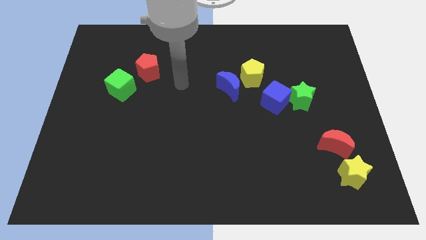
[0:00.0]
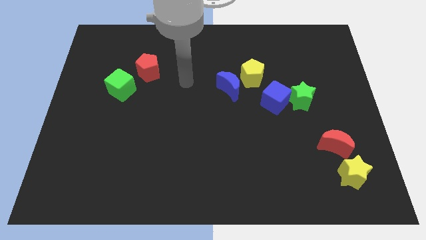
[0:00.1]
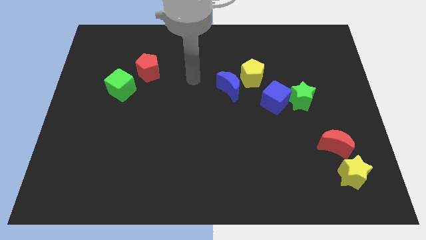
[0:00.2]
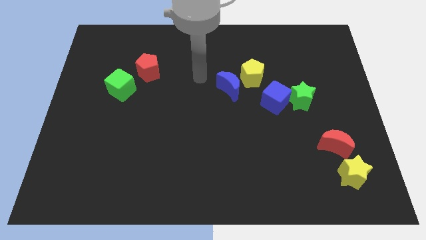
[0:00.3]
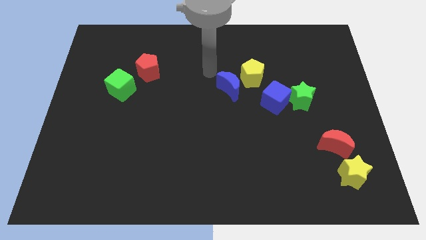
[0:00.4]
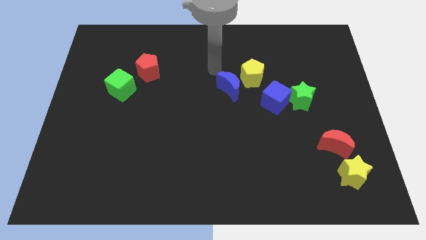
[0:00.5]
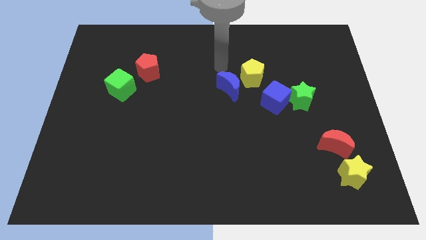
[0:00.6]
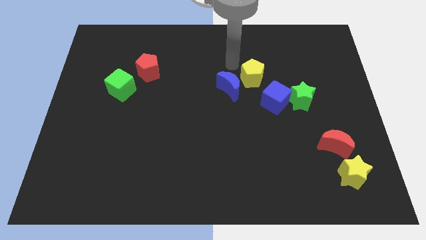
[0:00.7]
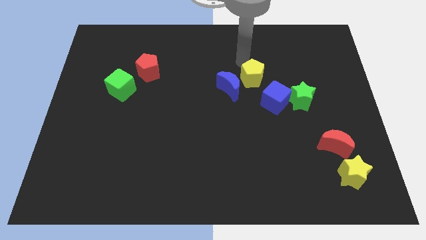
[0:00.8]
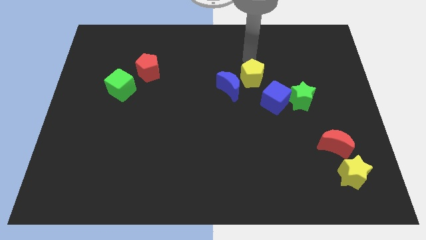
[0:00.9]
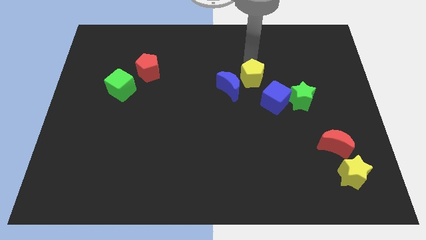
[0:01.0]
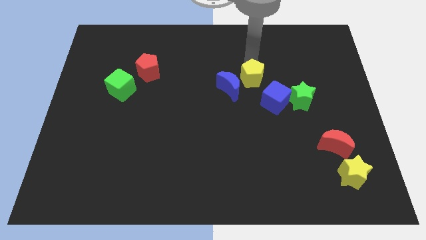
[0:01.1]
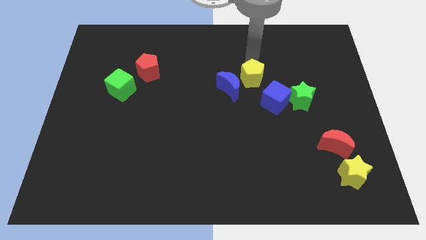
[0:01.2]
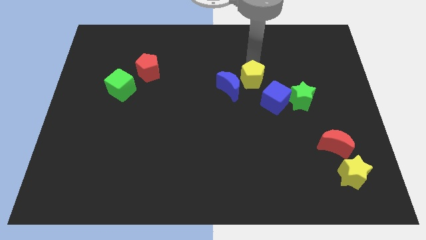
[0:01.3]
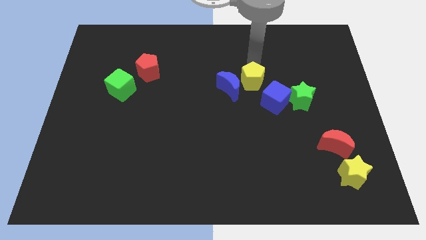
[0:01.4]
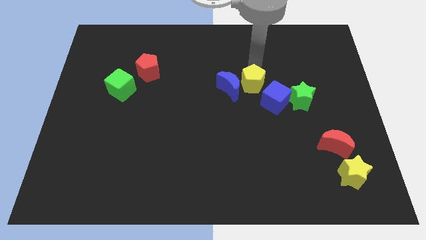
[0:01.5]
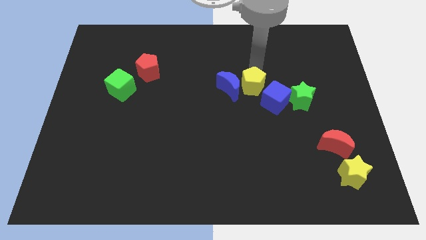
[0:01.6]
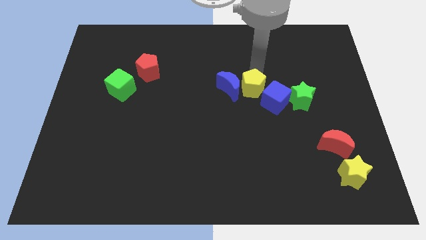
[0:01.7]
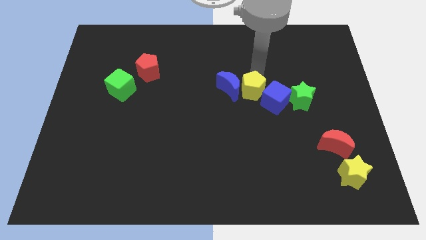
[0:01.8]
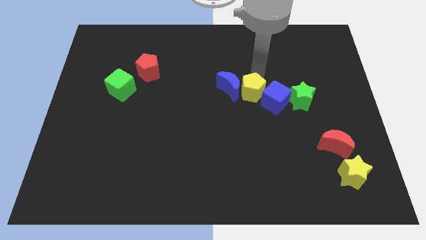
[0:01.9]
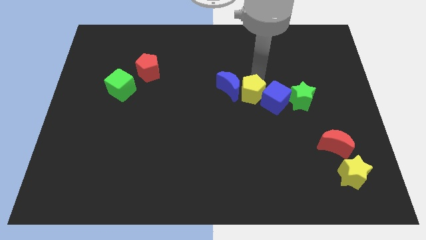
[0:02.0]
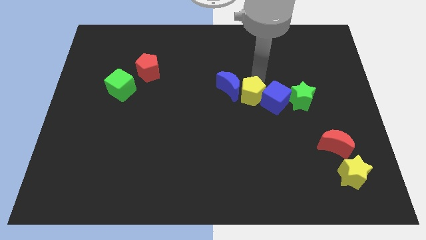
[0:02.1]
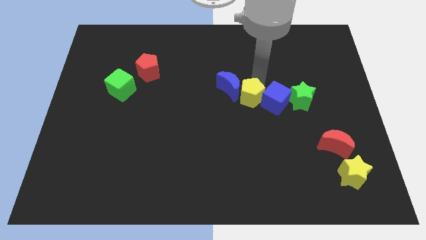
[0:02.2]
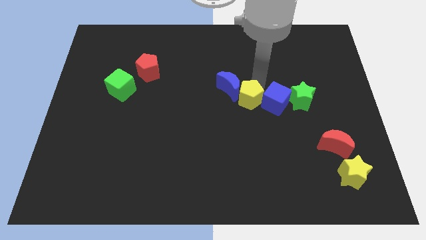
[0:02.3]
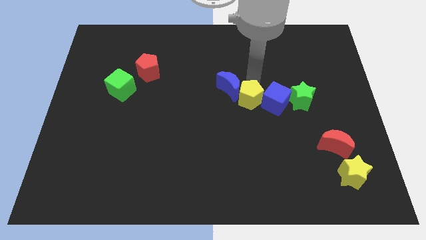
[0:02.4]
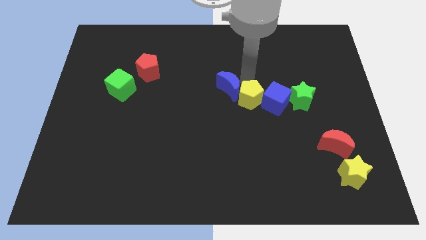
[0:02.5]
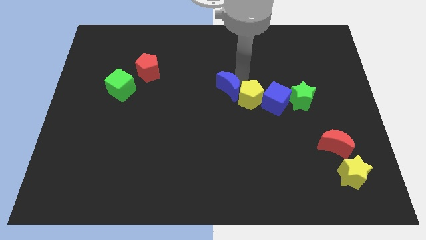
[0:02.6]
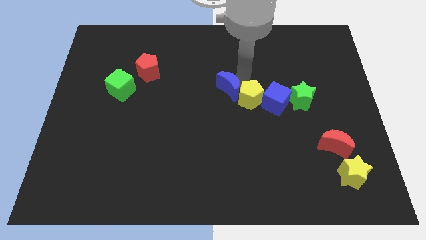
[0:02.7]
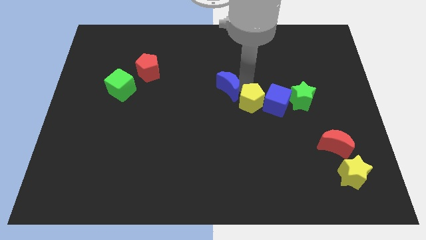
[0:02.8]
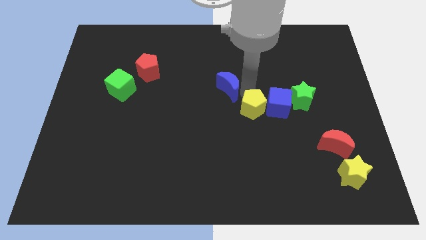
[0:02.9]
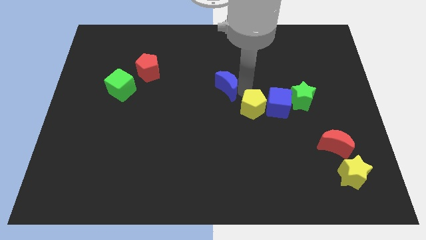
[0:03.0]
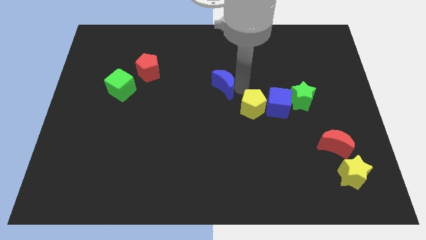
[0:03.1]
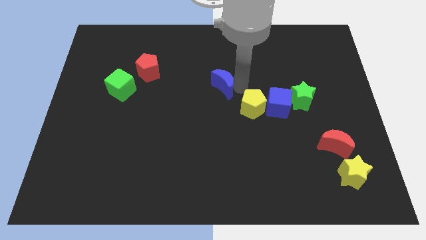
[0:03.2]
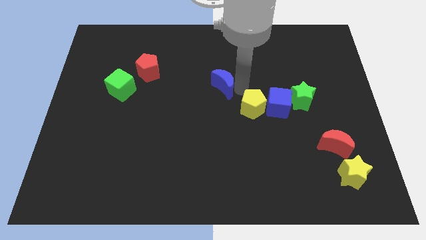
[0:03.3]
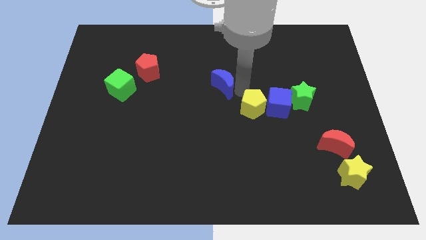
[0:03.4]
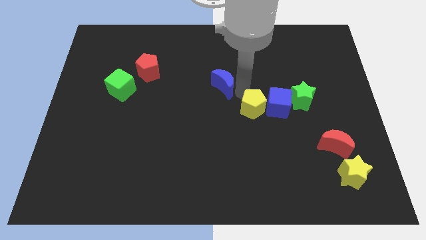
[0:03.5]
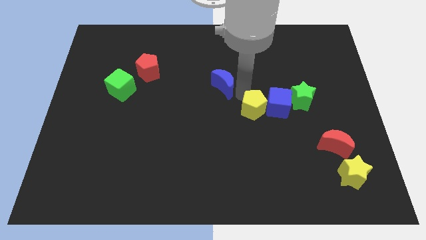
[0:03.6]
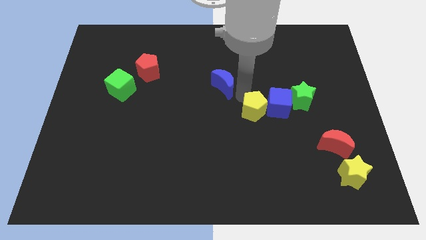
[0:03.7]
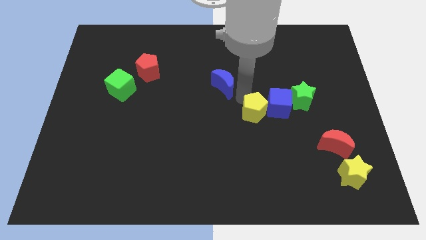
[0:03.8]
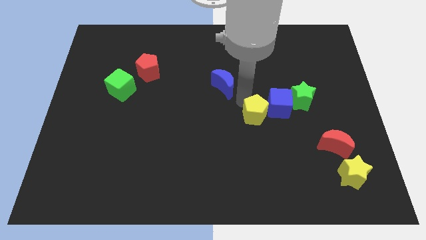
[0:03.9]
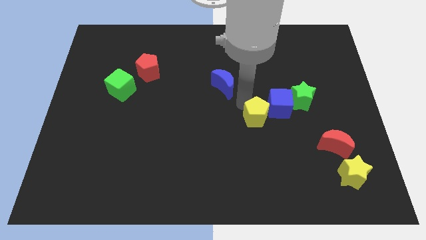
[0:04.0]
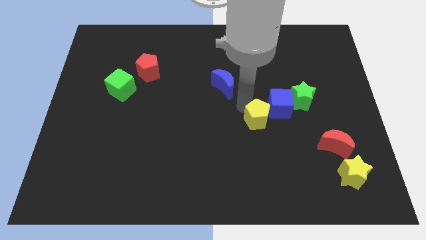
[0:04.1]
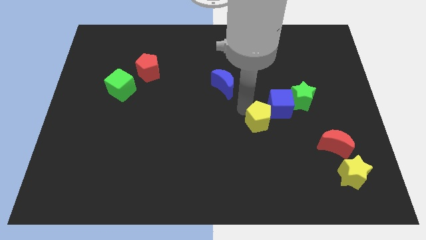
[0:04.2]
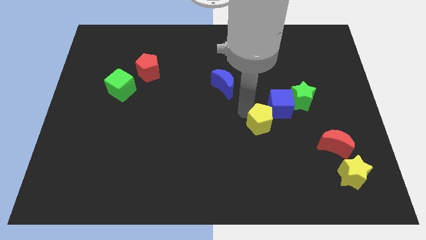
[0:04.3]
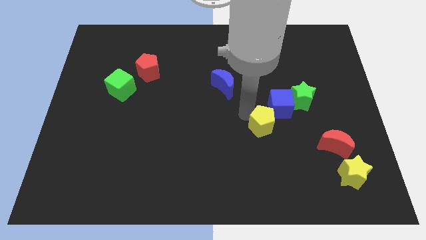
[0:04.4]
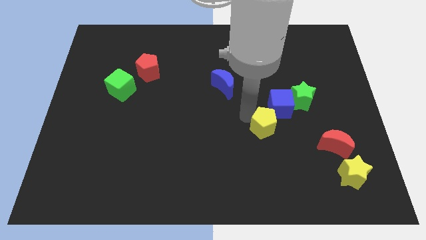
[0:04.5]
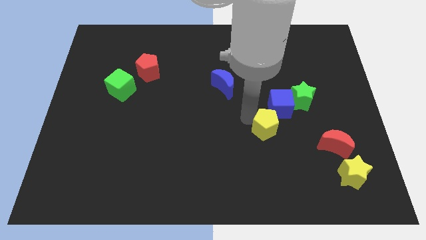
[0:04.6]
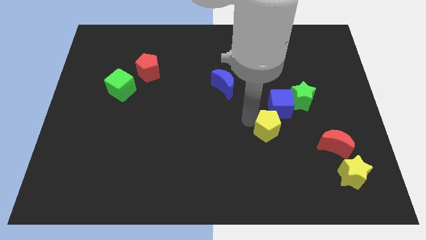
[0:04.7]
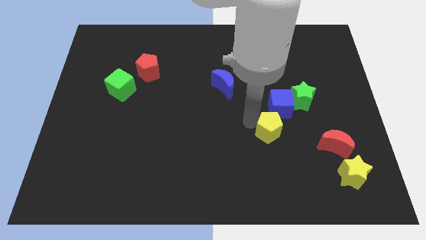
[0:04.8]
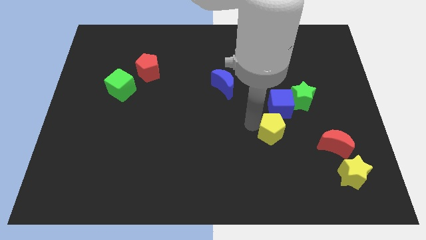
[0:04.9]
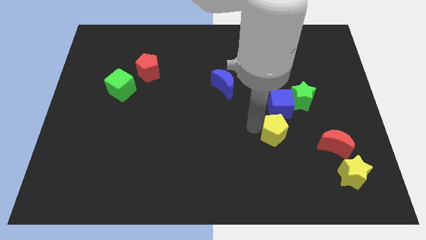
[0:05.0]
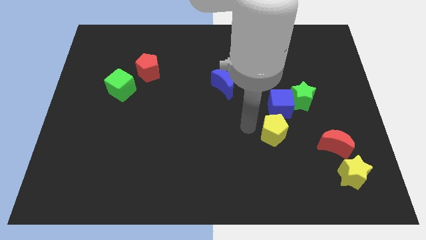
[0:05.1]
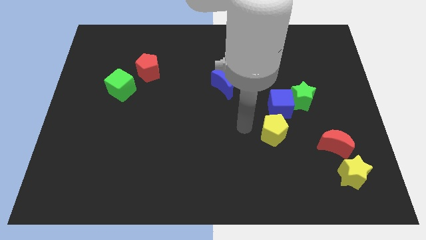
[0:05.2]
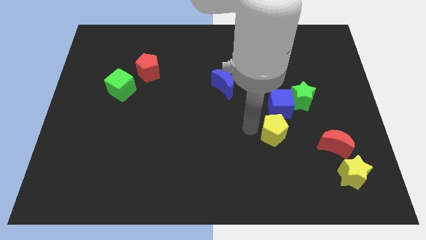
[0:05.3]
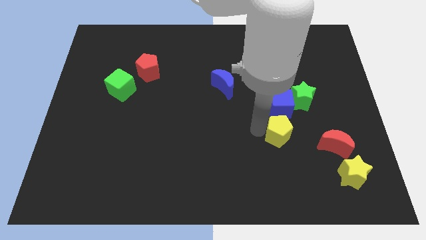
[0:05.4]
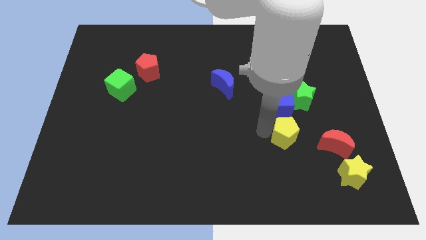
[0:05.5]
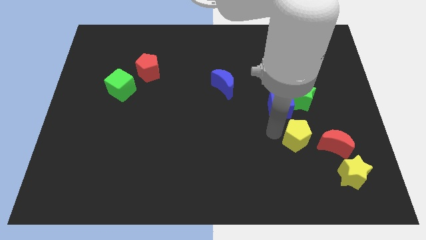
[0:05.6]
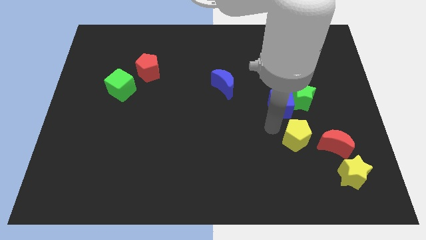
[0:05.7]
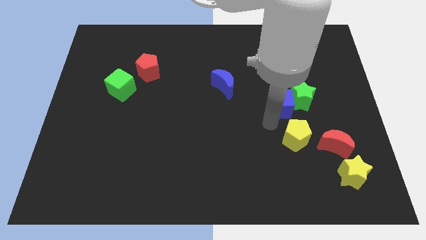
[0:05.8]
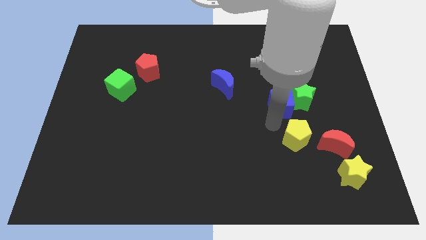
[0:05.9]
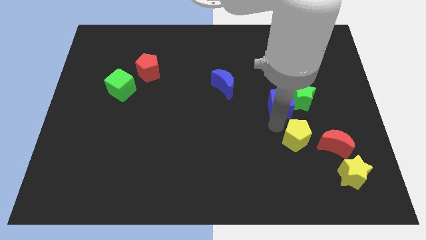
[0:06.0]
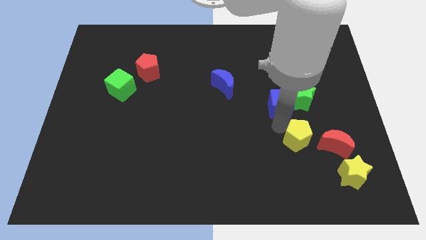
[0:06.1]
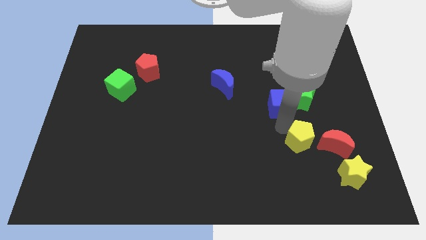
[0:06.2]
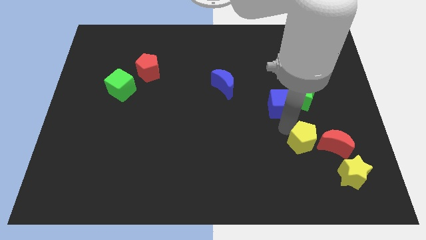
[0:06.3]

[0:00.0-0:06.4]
put the yellow pentagon to the top left of the yellow star
